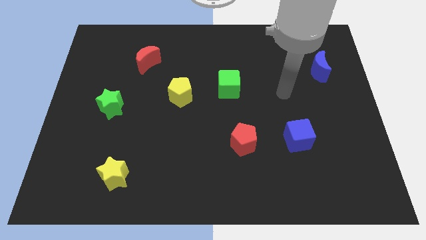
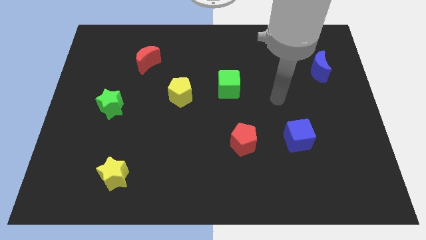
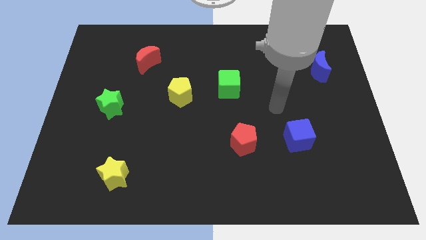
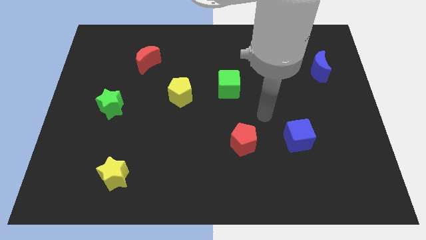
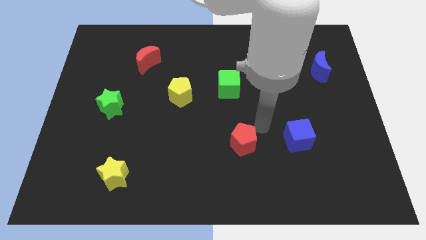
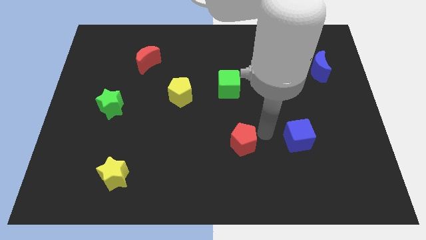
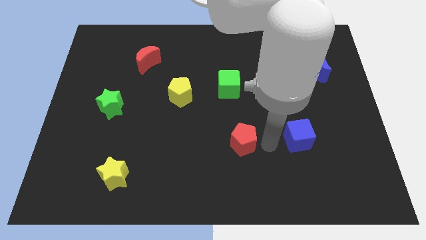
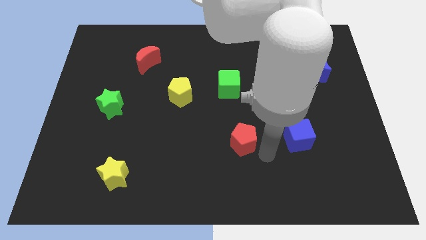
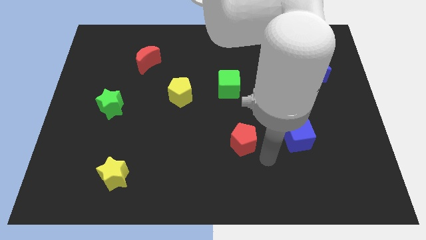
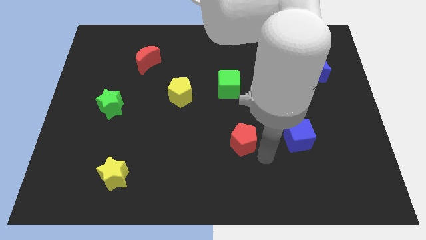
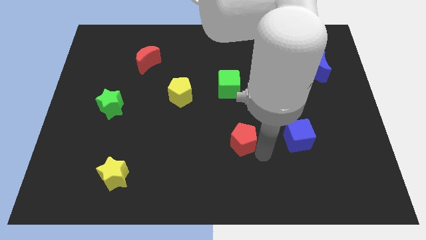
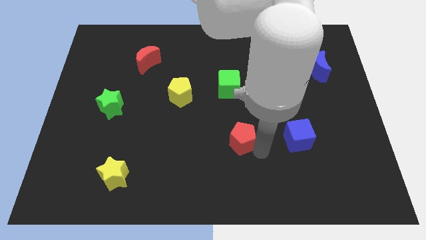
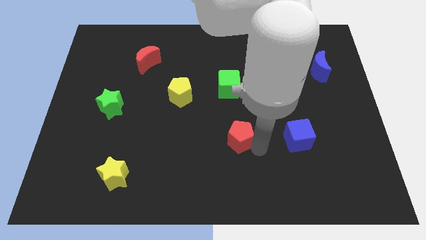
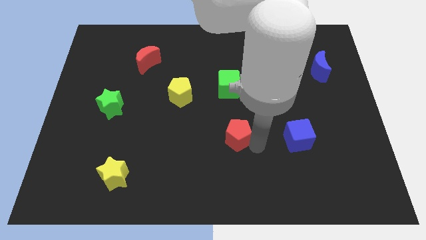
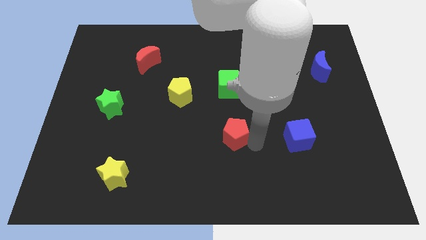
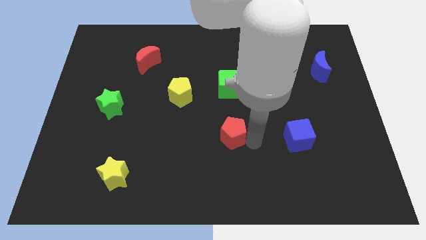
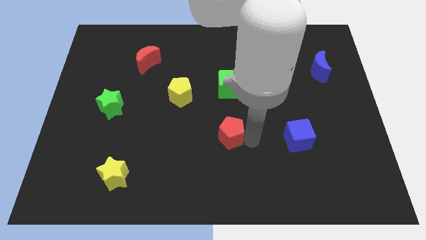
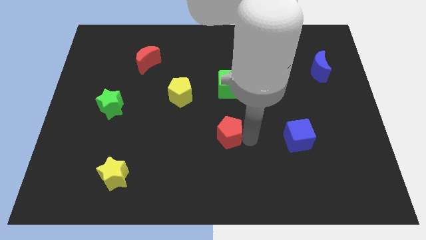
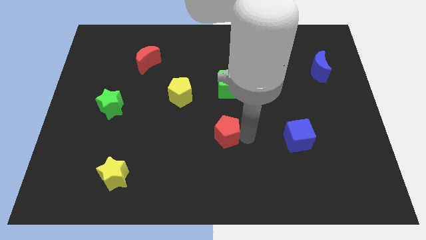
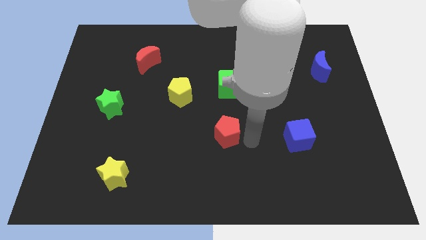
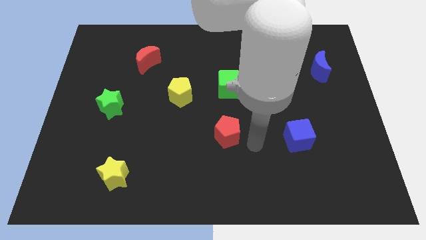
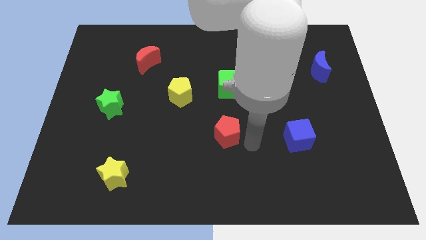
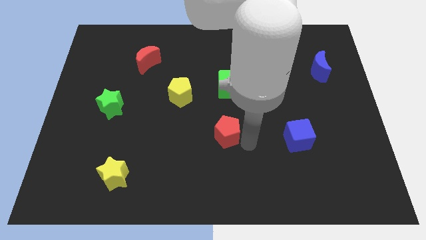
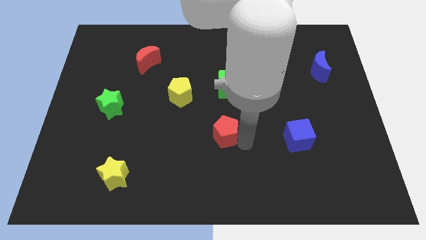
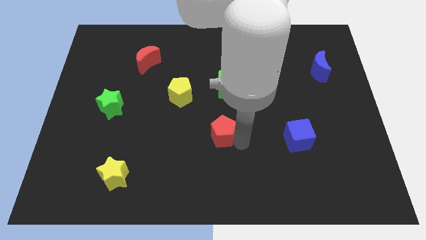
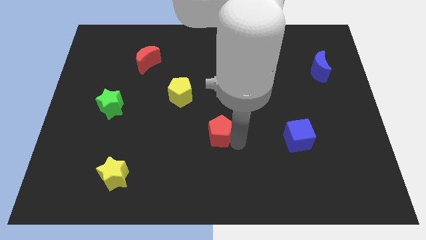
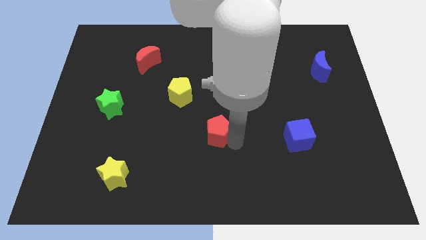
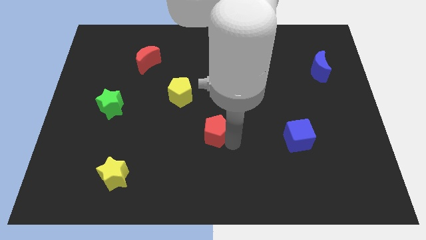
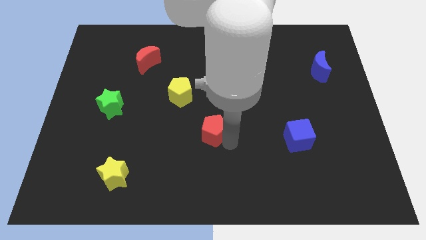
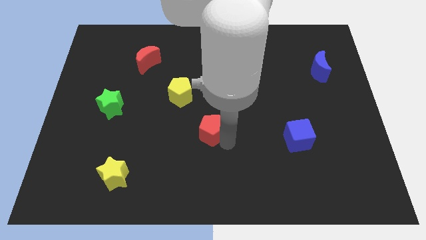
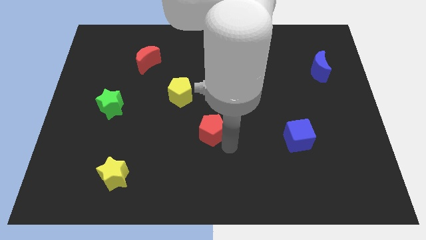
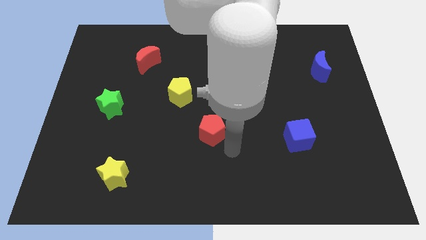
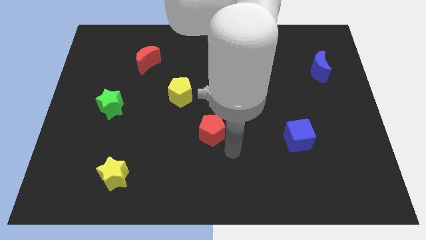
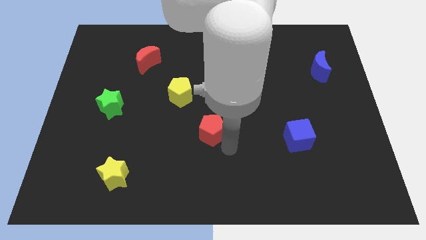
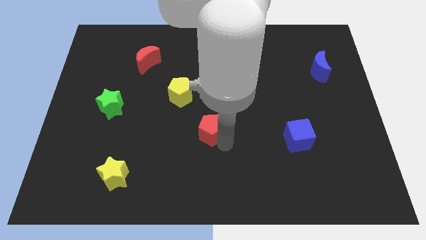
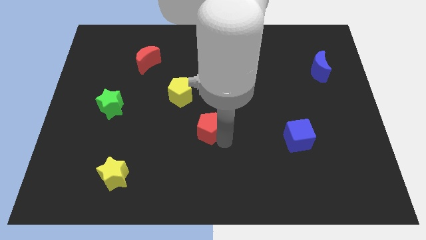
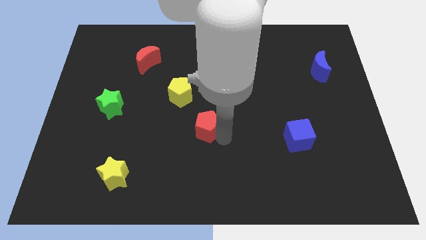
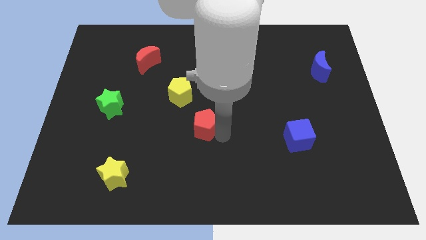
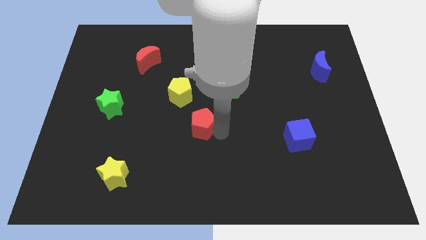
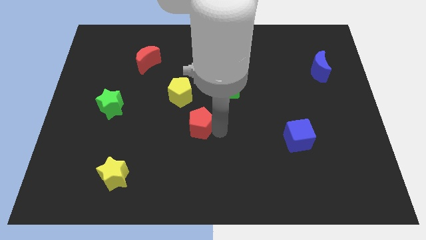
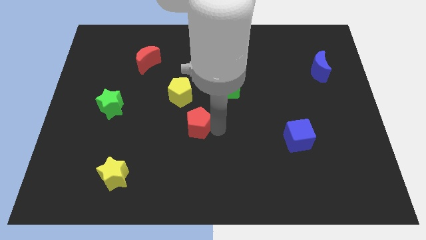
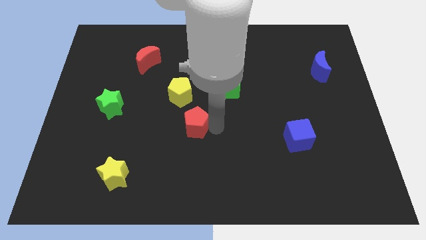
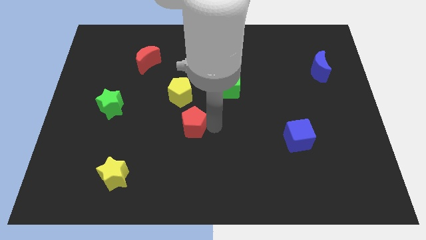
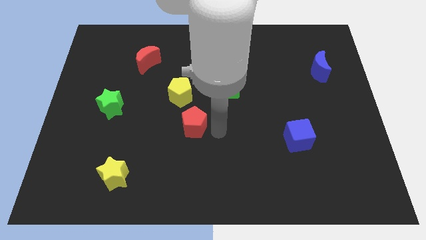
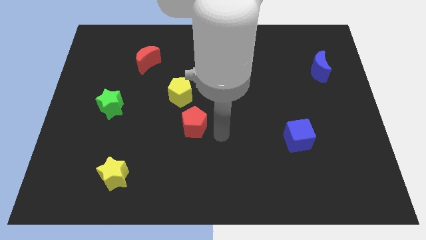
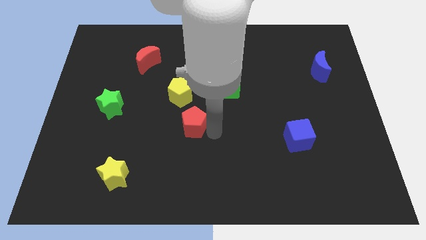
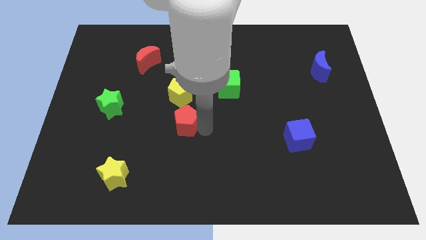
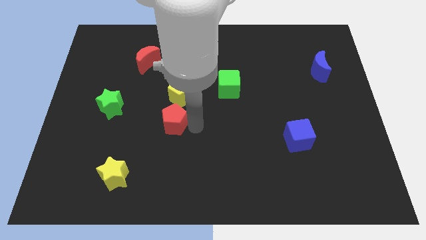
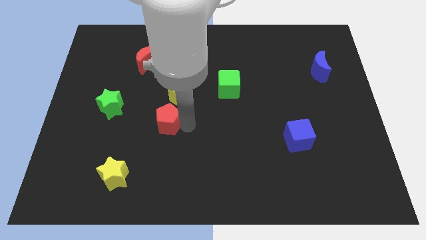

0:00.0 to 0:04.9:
put the red pentagon to the bottom left of the yellow pentagon

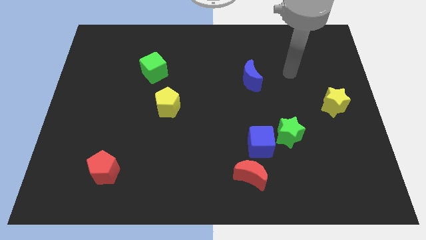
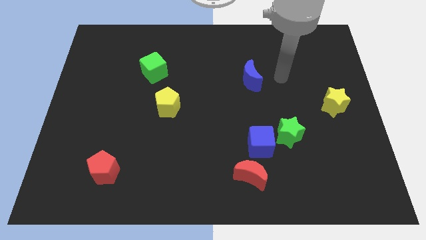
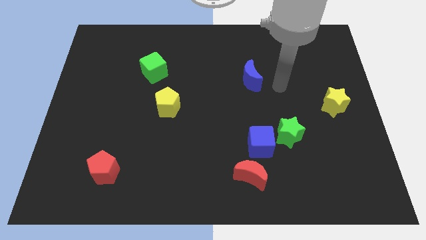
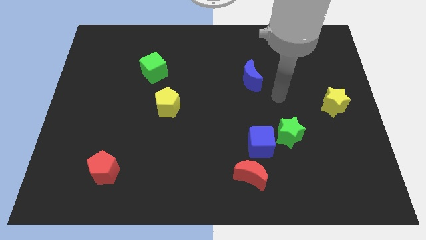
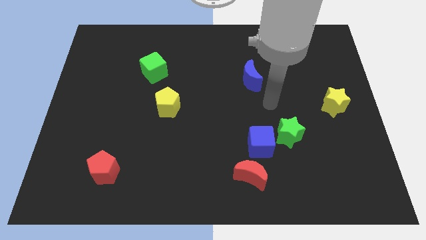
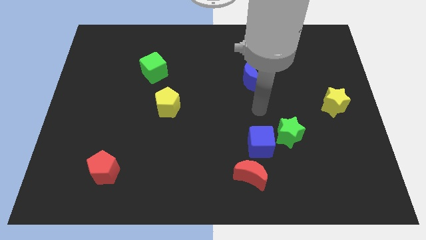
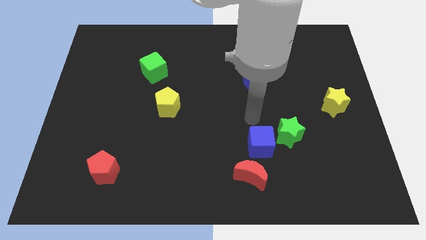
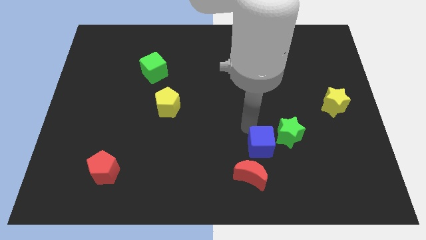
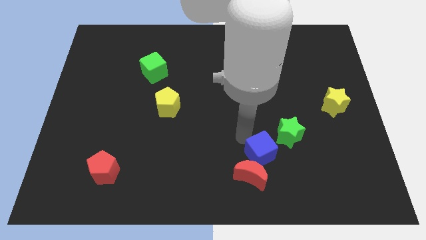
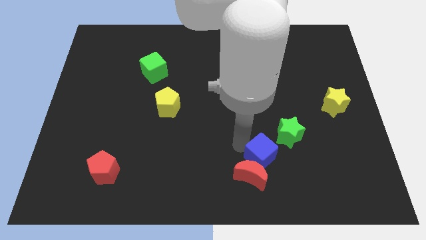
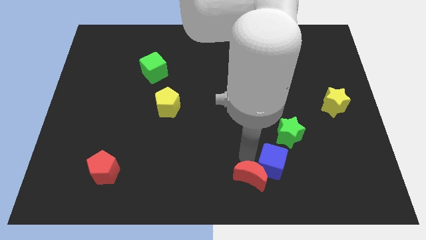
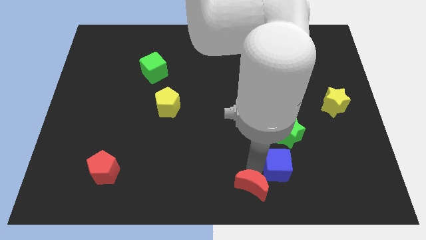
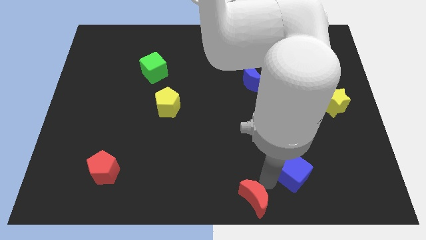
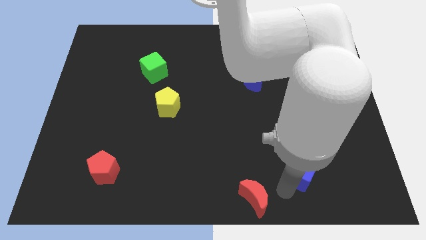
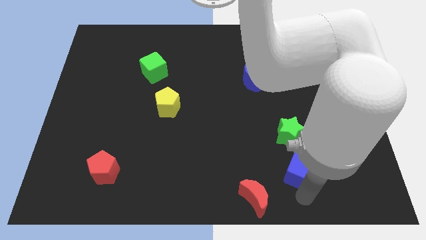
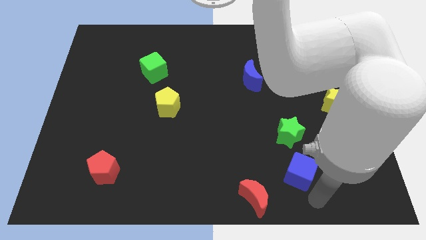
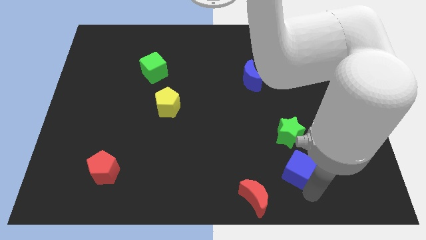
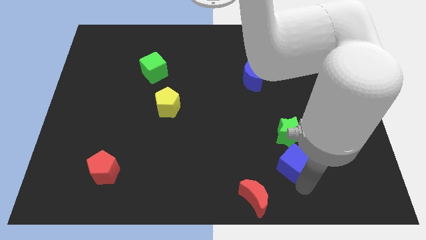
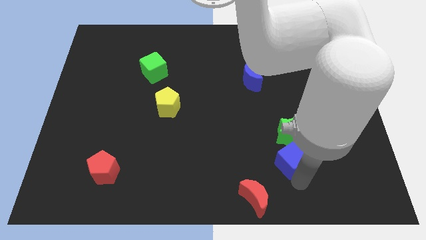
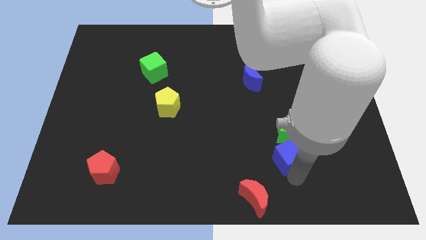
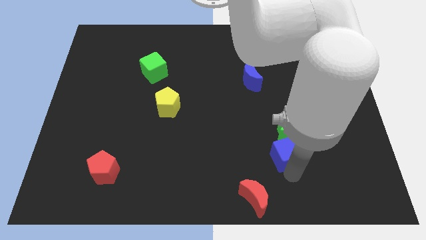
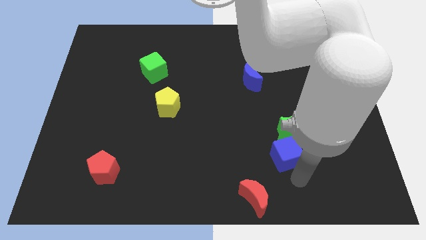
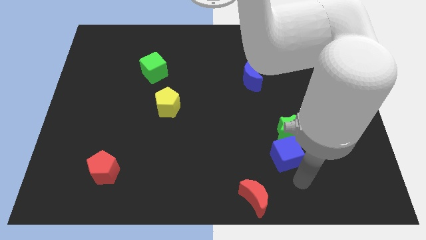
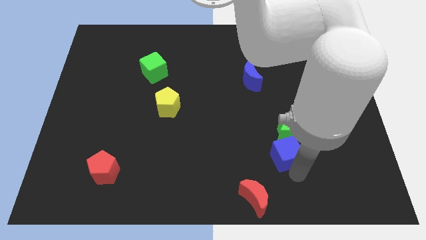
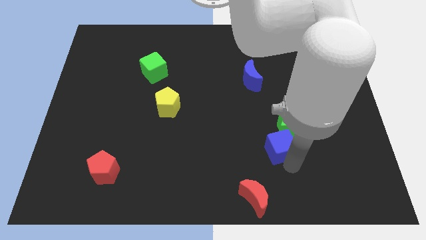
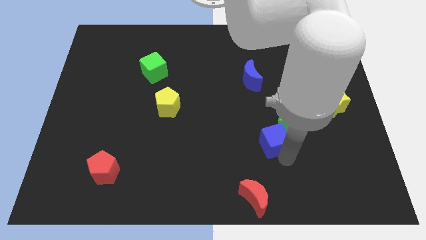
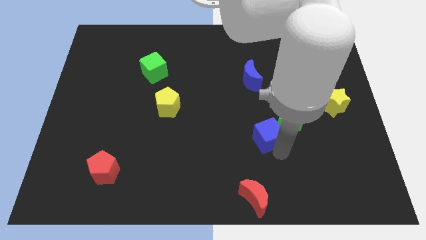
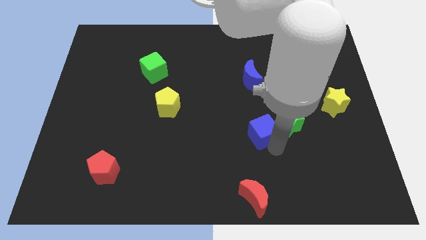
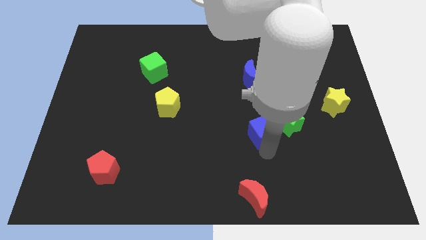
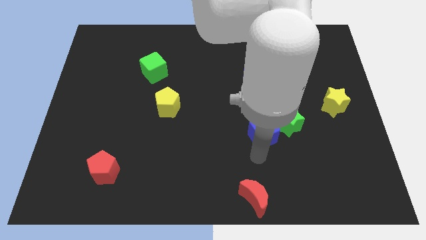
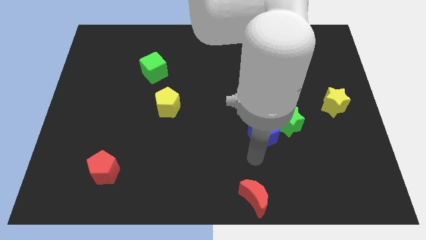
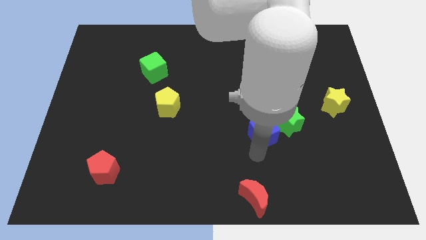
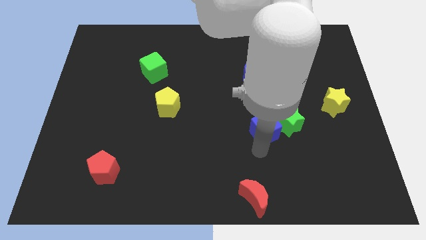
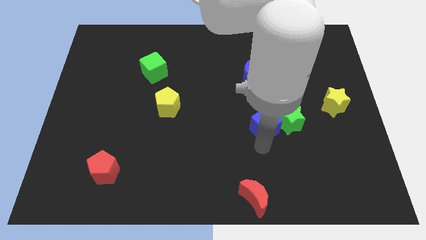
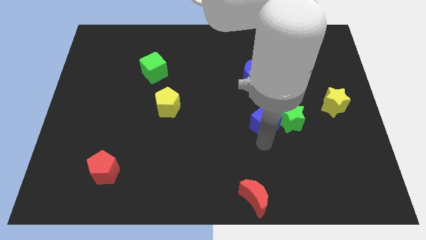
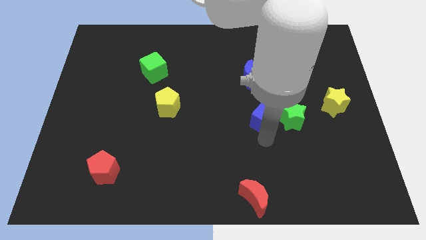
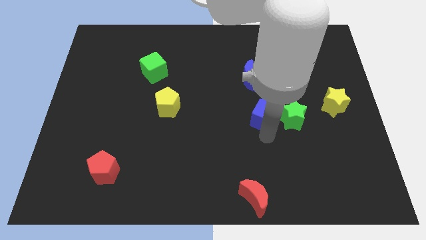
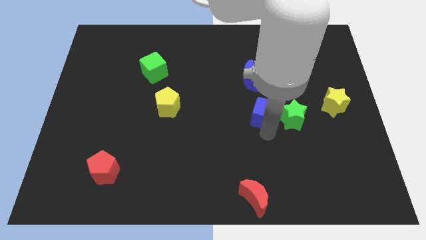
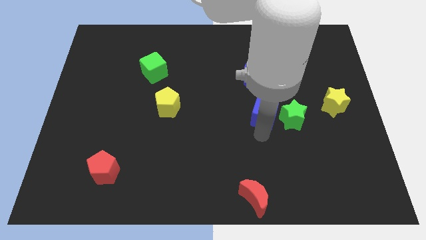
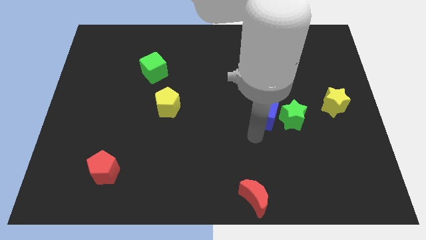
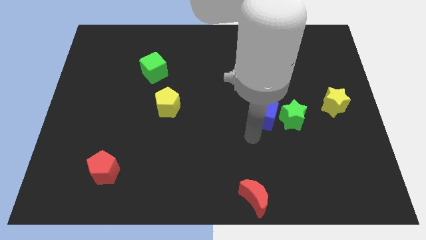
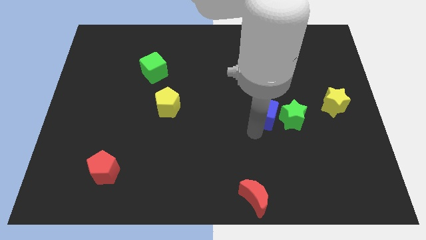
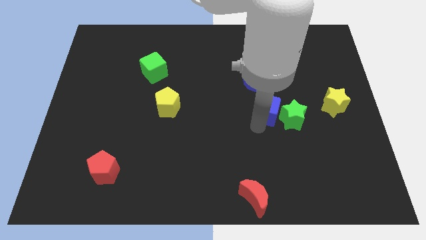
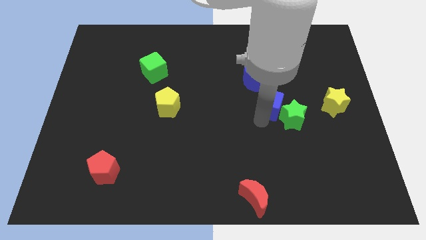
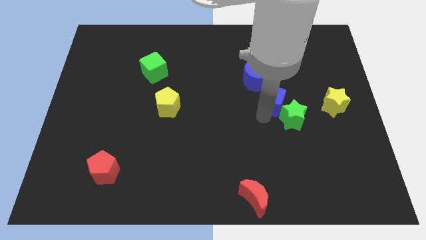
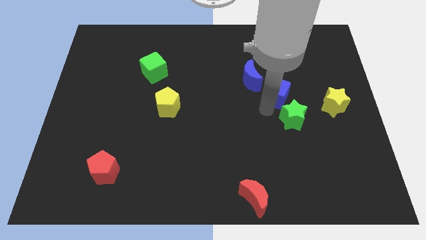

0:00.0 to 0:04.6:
put the blue cube just right of the blue moon
